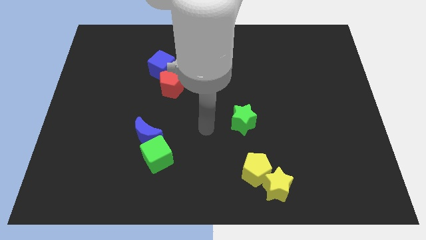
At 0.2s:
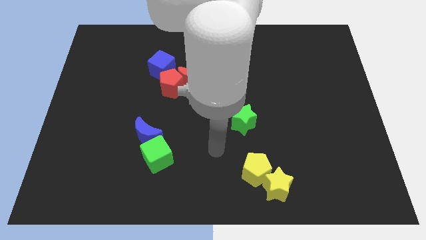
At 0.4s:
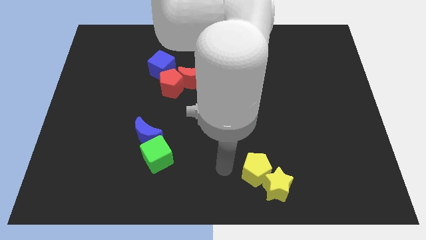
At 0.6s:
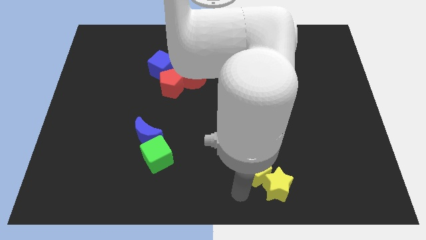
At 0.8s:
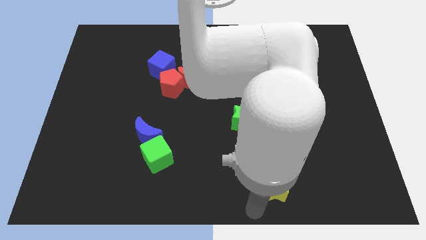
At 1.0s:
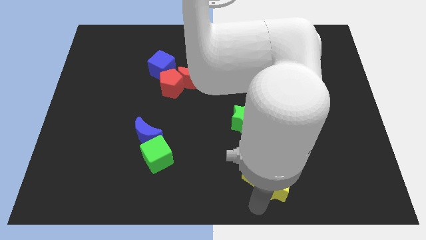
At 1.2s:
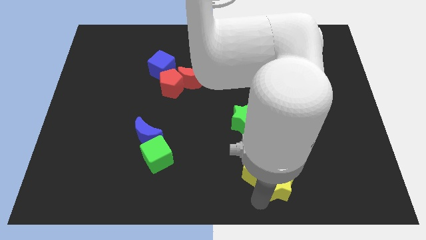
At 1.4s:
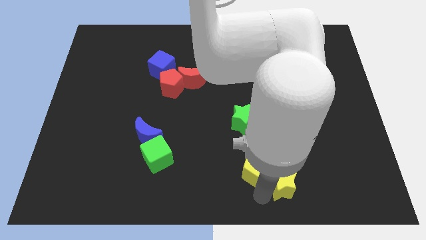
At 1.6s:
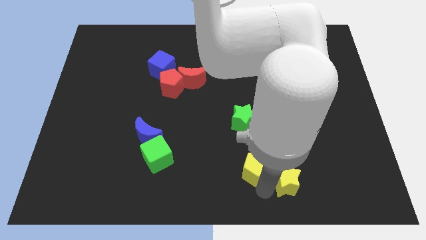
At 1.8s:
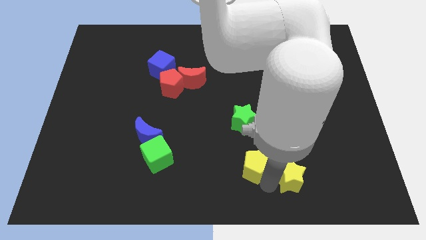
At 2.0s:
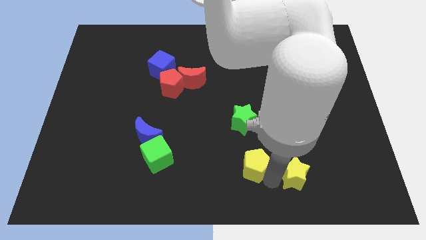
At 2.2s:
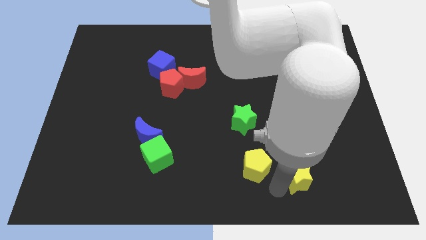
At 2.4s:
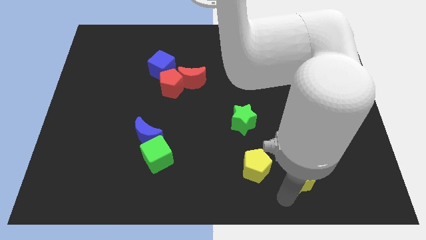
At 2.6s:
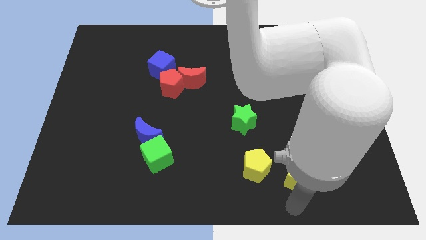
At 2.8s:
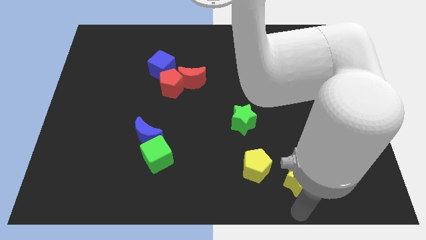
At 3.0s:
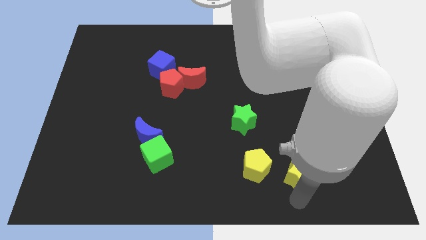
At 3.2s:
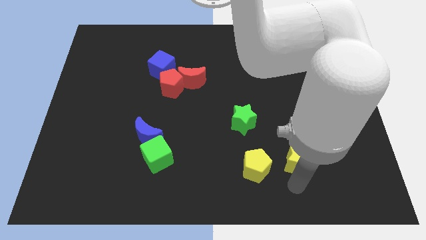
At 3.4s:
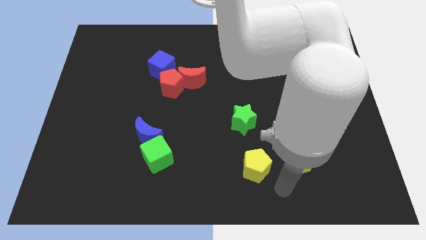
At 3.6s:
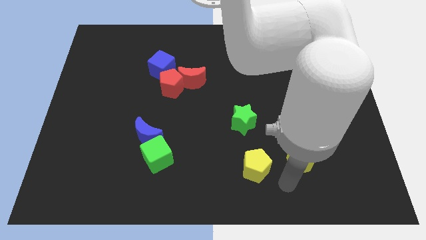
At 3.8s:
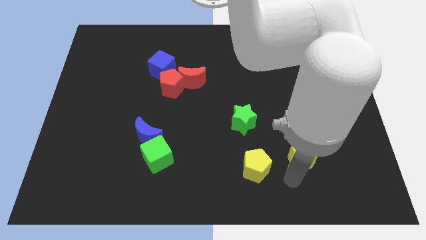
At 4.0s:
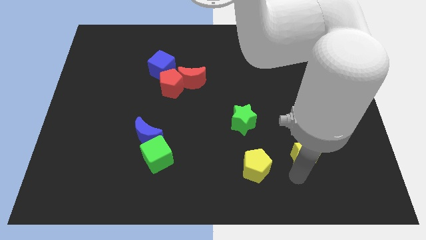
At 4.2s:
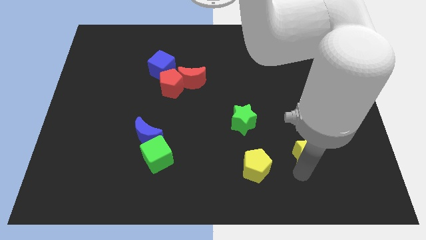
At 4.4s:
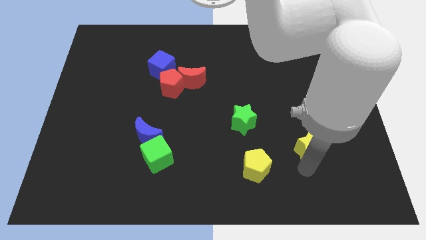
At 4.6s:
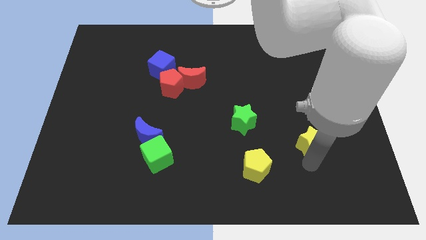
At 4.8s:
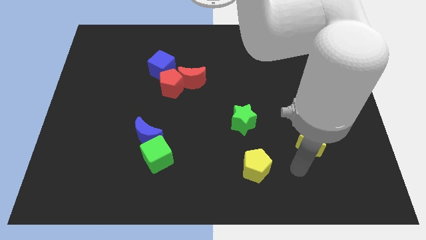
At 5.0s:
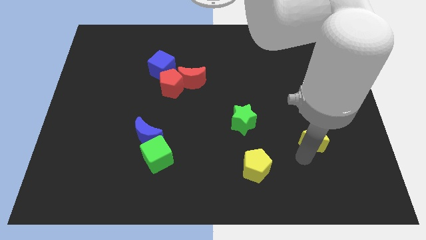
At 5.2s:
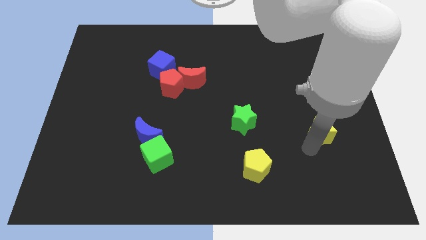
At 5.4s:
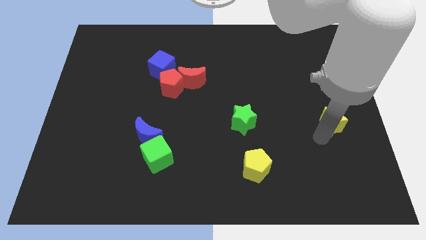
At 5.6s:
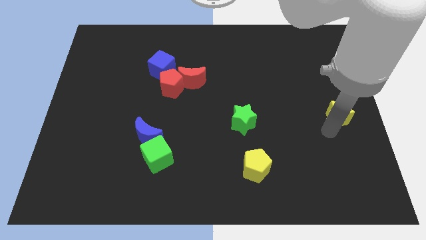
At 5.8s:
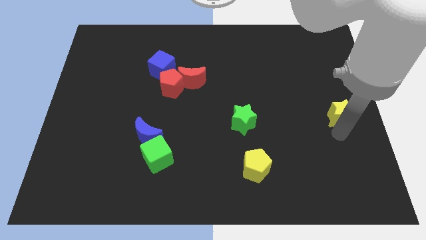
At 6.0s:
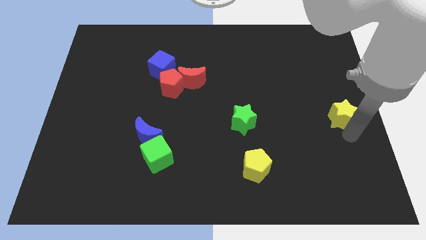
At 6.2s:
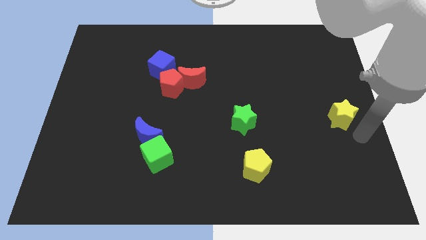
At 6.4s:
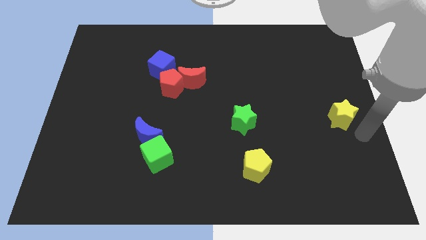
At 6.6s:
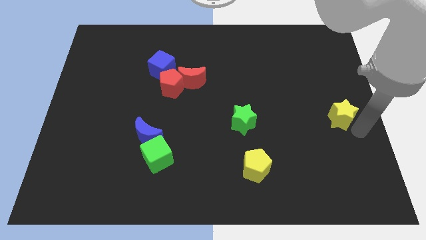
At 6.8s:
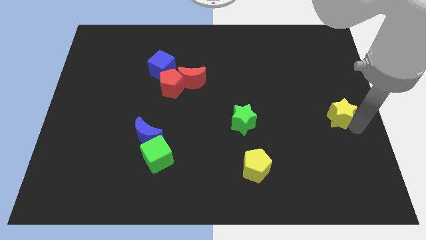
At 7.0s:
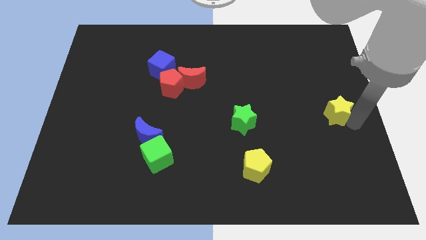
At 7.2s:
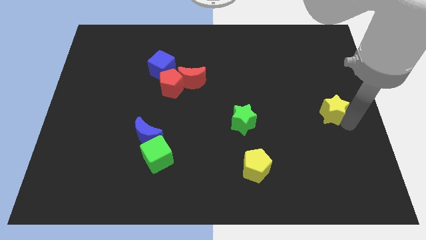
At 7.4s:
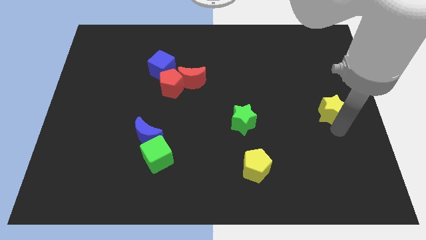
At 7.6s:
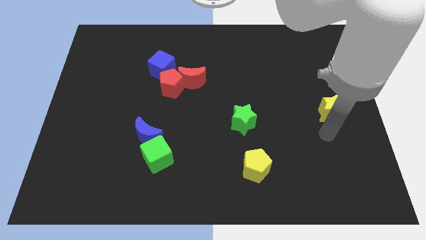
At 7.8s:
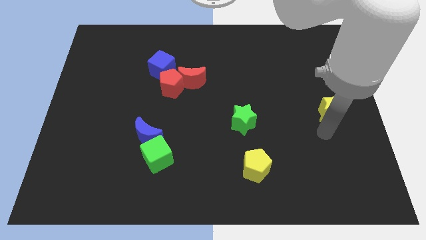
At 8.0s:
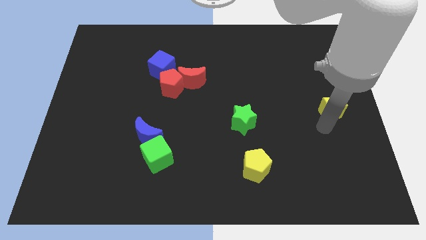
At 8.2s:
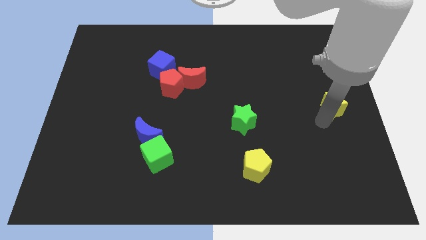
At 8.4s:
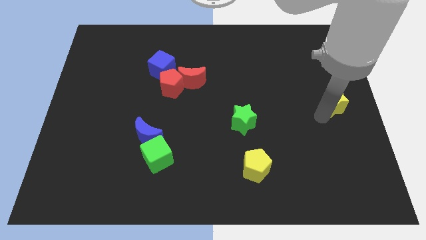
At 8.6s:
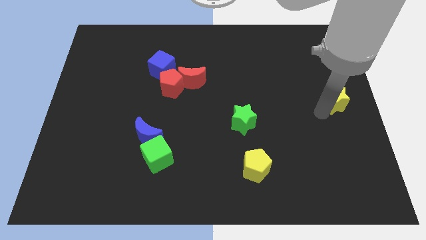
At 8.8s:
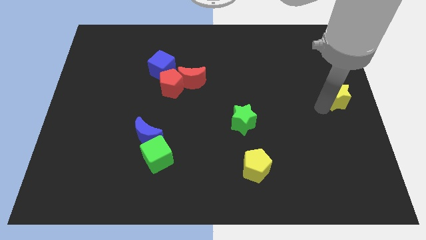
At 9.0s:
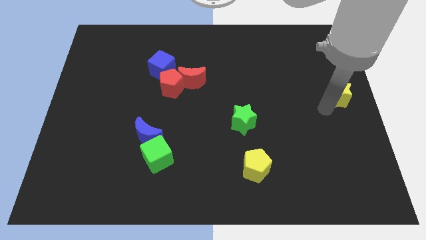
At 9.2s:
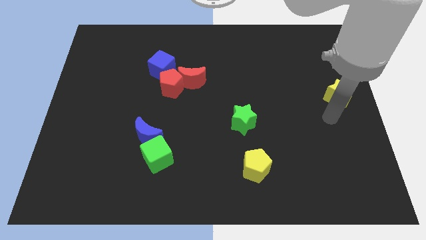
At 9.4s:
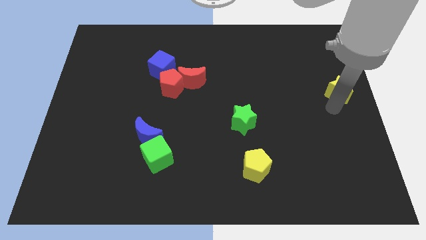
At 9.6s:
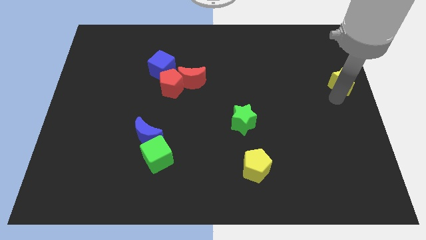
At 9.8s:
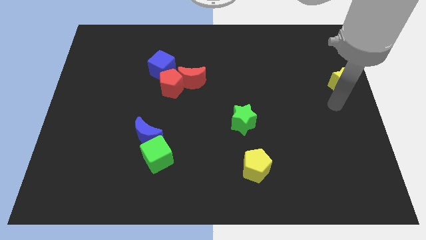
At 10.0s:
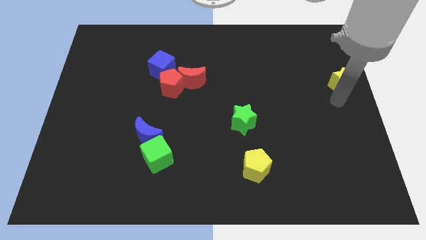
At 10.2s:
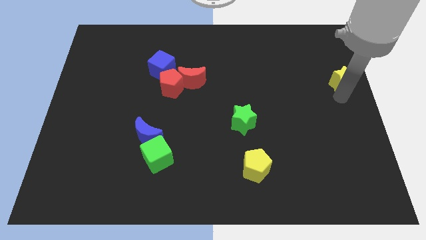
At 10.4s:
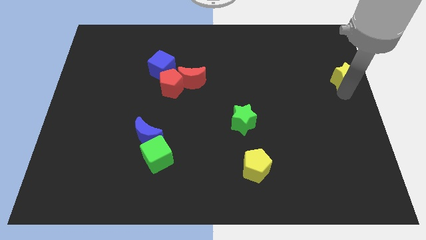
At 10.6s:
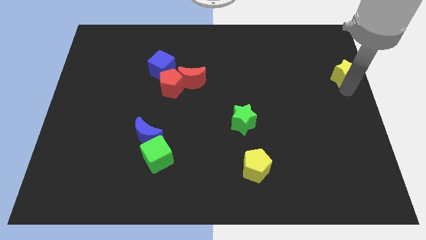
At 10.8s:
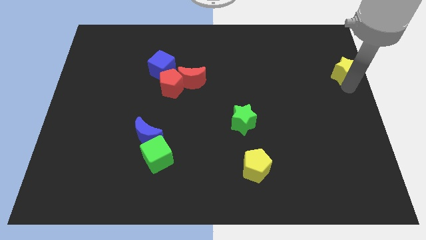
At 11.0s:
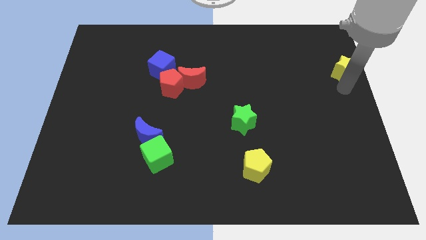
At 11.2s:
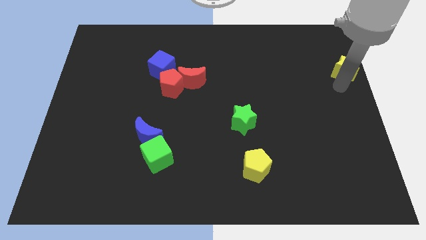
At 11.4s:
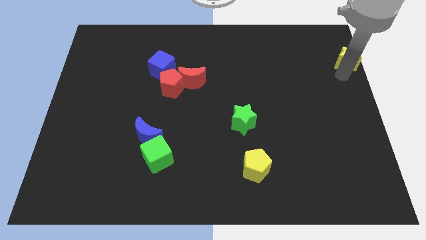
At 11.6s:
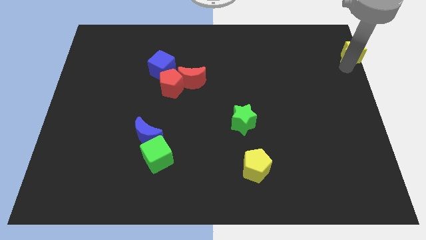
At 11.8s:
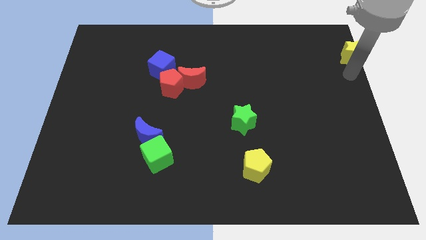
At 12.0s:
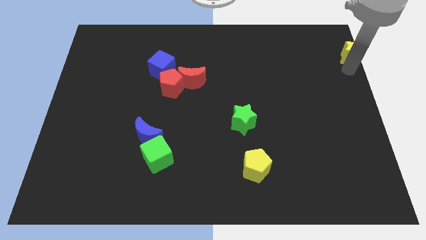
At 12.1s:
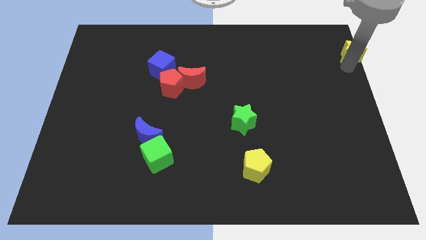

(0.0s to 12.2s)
move the yellow star to the top right corner
